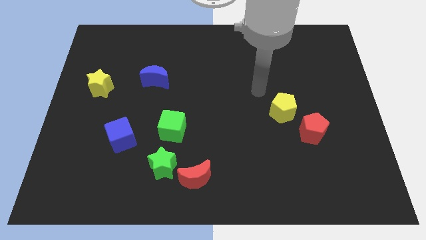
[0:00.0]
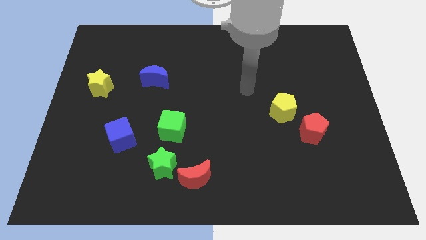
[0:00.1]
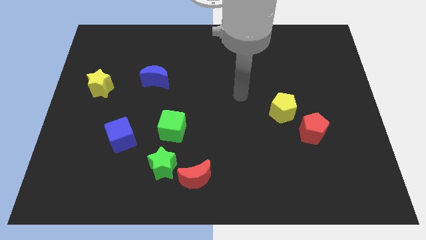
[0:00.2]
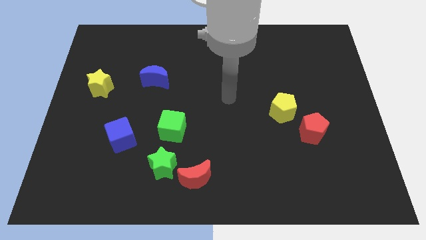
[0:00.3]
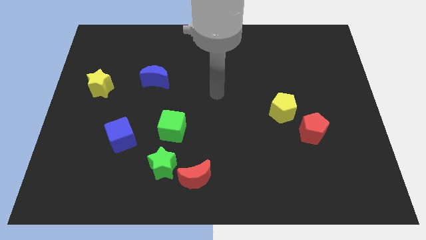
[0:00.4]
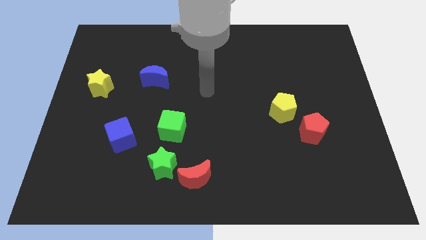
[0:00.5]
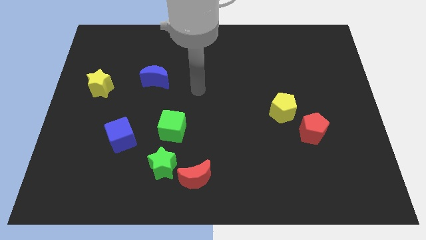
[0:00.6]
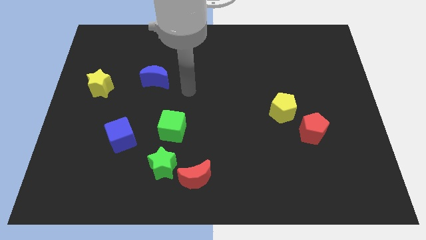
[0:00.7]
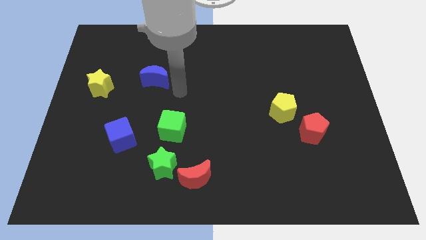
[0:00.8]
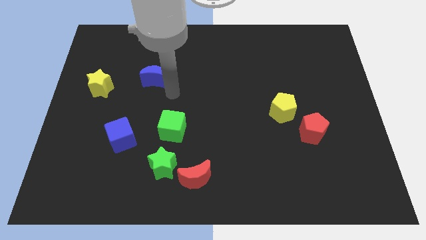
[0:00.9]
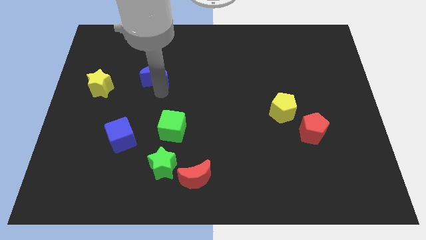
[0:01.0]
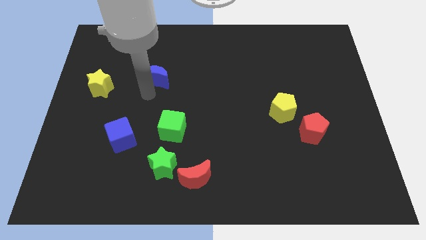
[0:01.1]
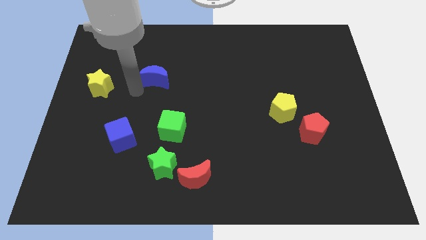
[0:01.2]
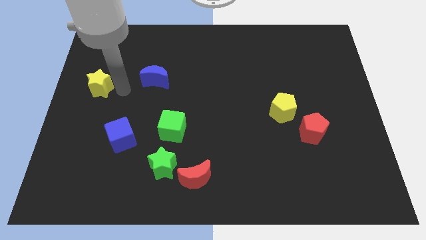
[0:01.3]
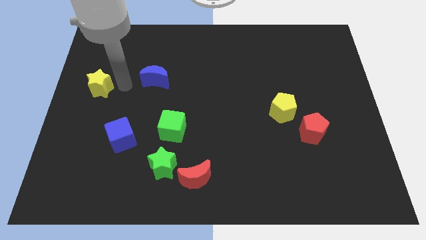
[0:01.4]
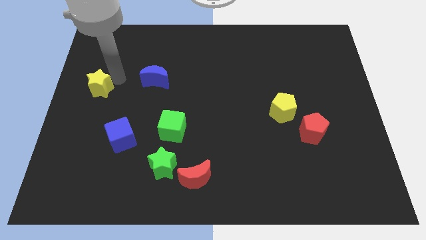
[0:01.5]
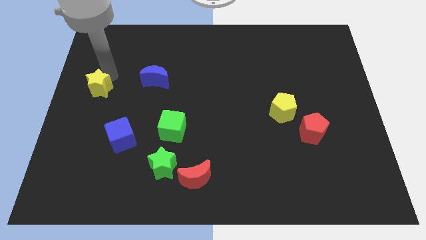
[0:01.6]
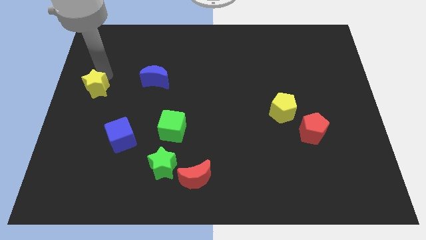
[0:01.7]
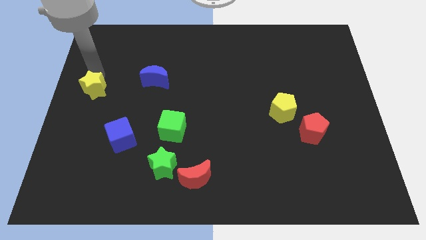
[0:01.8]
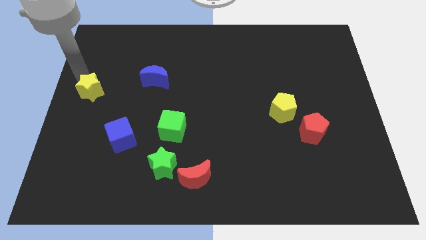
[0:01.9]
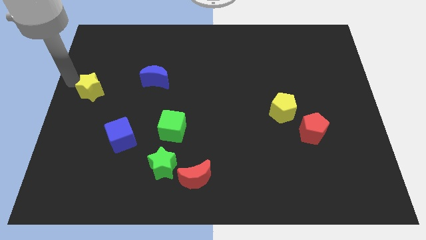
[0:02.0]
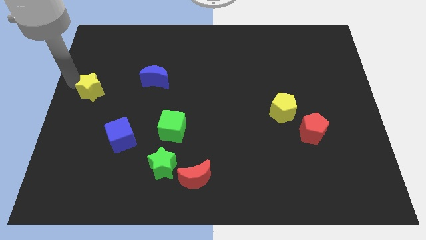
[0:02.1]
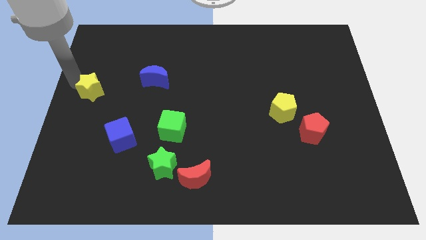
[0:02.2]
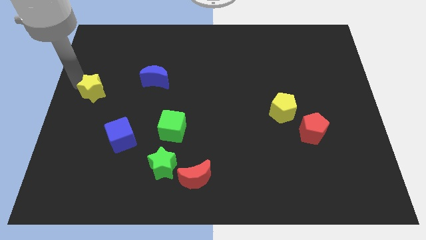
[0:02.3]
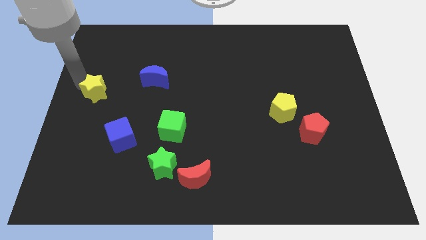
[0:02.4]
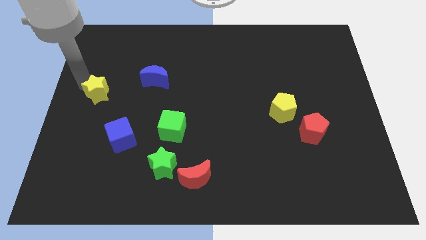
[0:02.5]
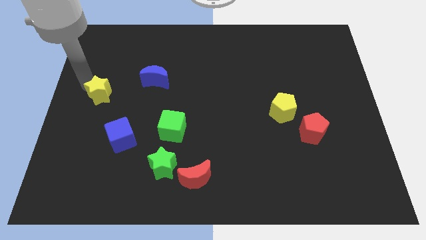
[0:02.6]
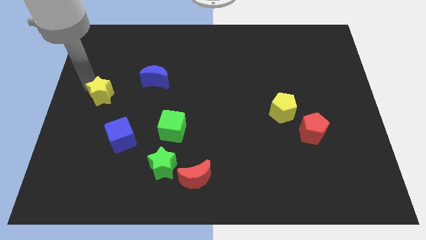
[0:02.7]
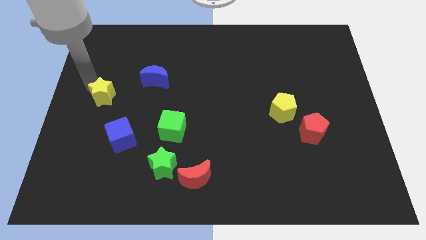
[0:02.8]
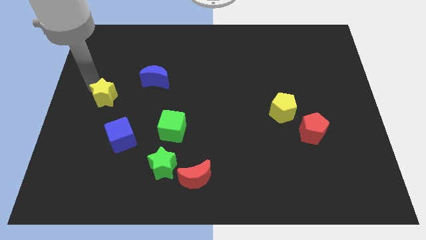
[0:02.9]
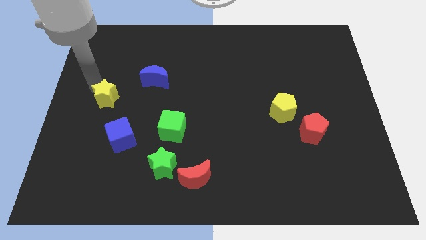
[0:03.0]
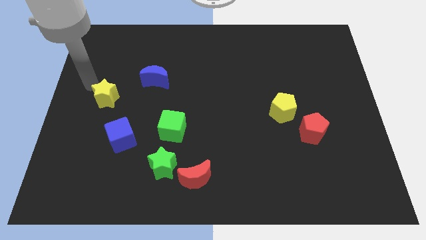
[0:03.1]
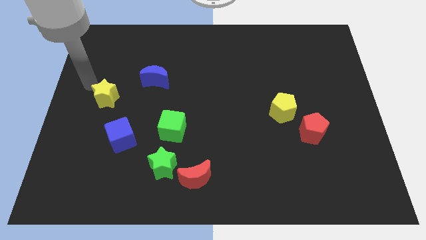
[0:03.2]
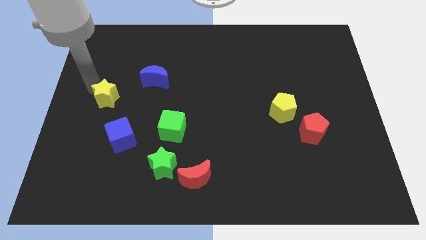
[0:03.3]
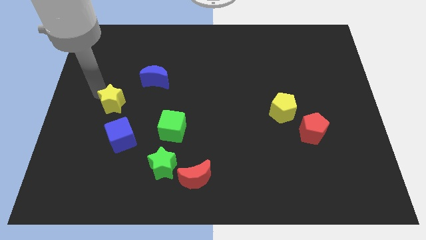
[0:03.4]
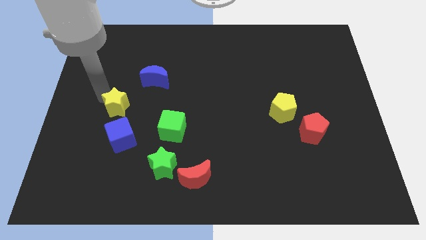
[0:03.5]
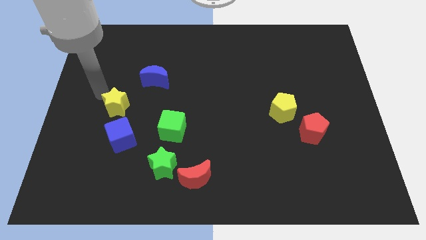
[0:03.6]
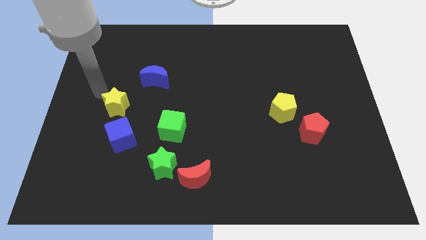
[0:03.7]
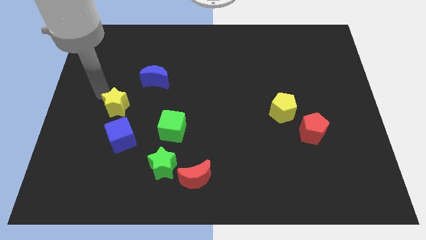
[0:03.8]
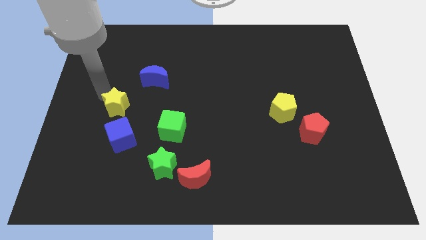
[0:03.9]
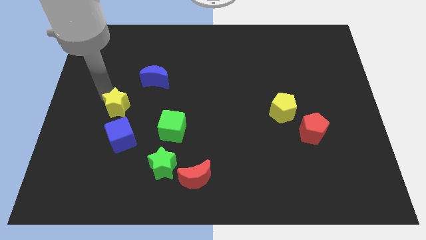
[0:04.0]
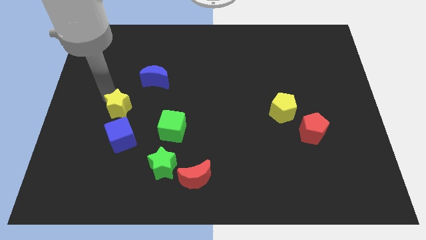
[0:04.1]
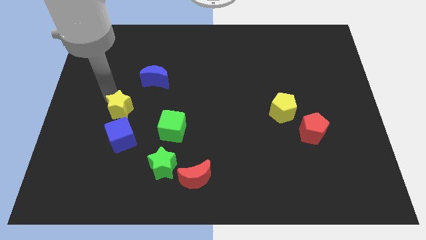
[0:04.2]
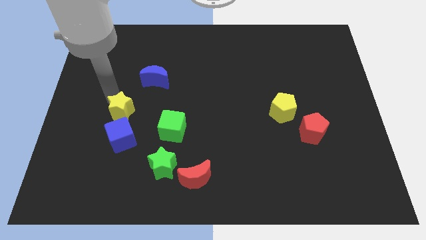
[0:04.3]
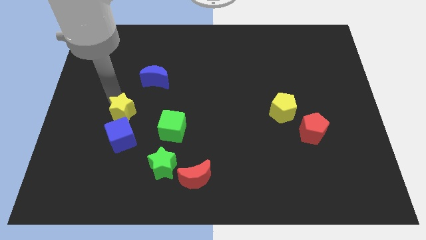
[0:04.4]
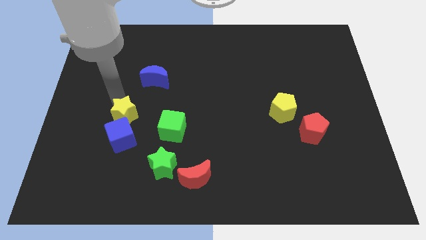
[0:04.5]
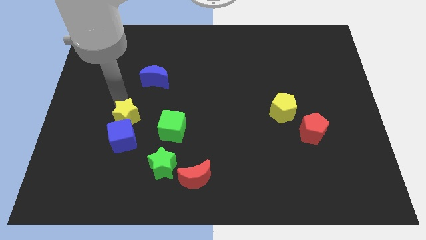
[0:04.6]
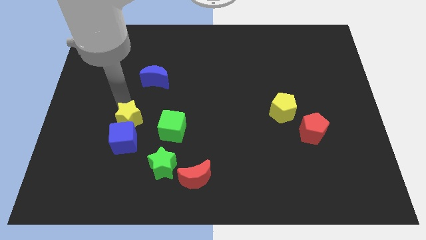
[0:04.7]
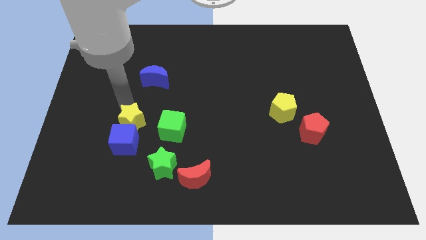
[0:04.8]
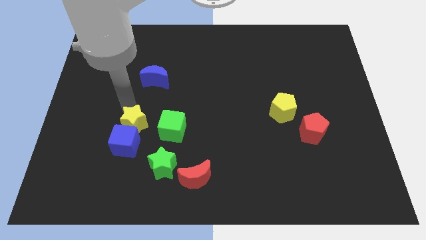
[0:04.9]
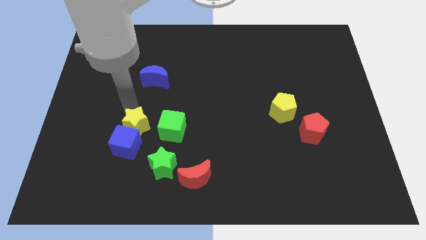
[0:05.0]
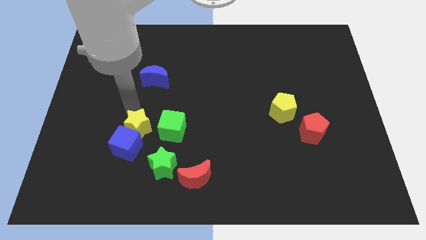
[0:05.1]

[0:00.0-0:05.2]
put the yellow star to the top left of the green star

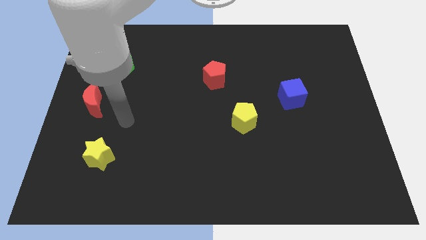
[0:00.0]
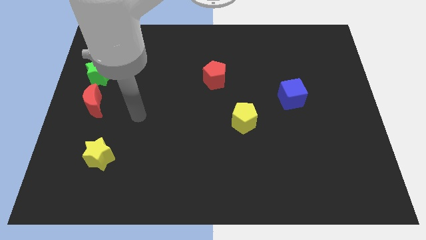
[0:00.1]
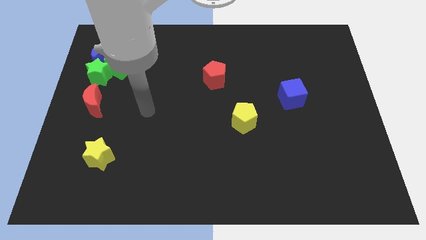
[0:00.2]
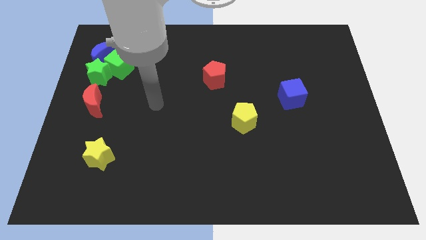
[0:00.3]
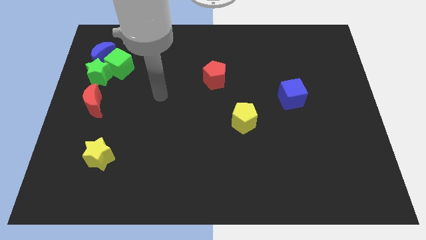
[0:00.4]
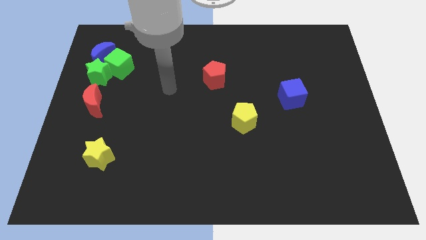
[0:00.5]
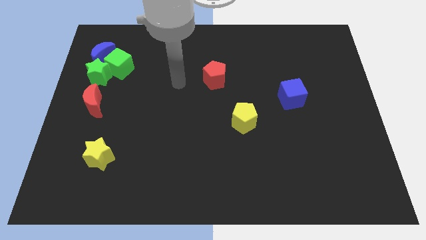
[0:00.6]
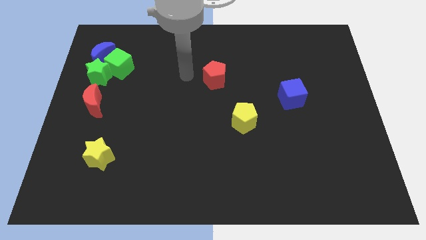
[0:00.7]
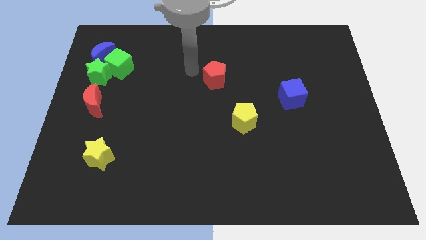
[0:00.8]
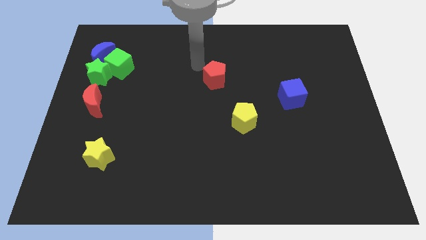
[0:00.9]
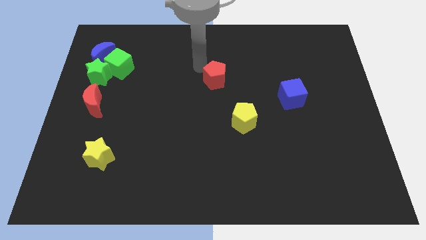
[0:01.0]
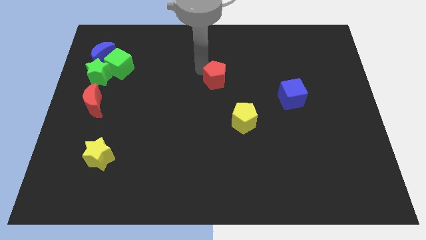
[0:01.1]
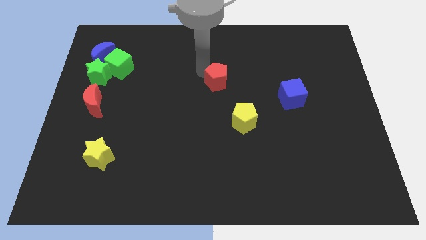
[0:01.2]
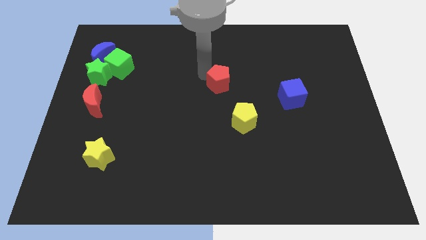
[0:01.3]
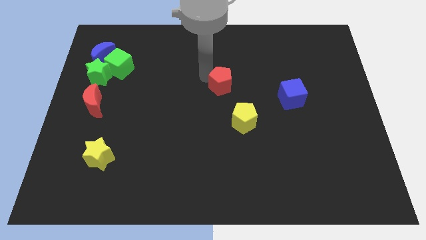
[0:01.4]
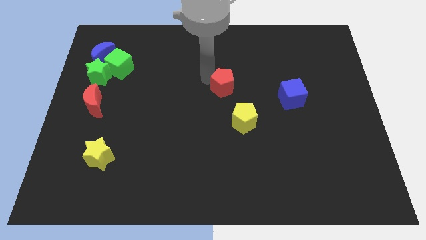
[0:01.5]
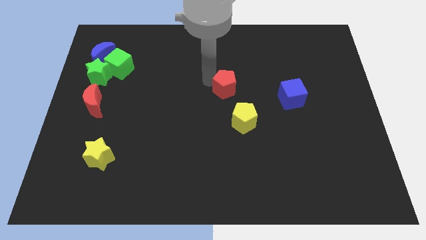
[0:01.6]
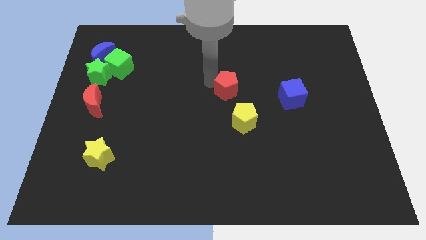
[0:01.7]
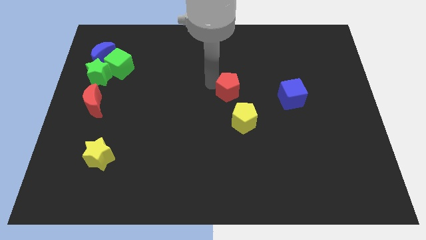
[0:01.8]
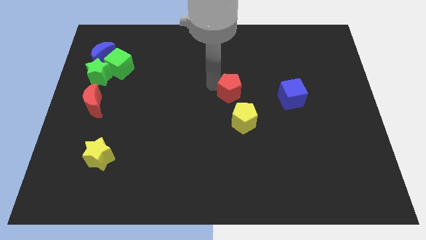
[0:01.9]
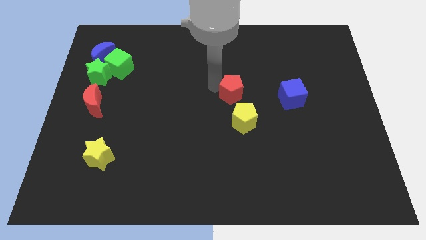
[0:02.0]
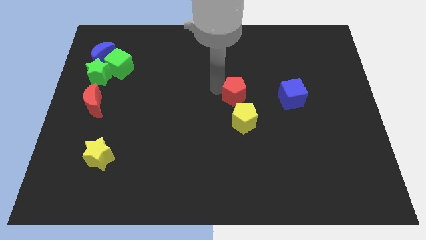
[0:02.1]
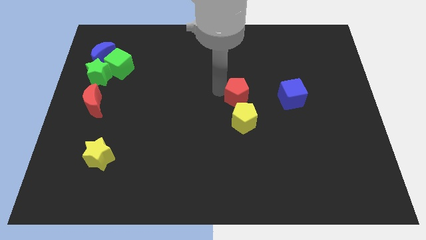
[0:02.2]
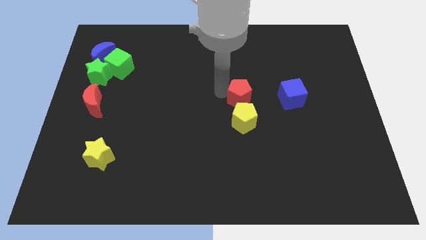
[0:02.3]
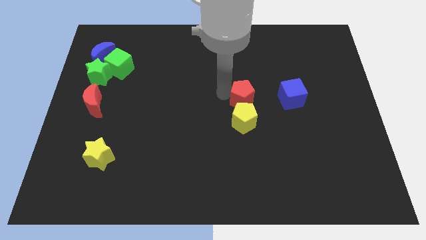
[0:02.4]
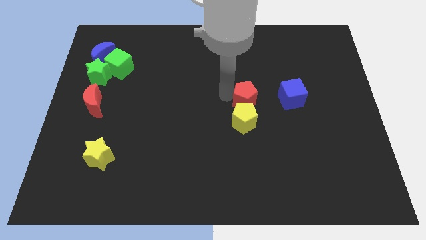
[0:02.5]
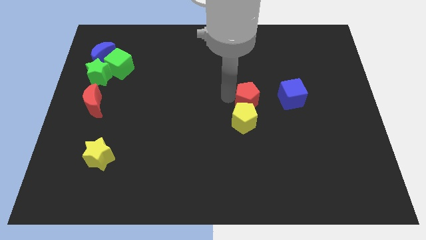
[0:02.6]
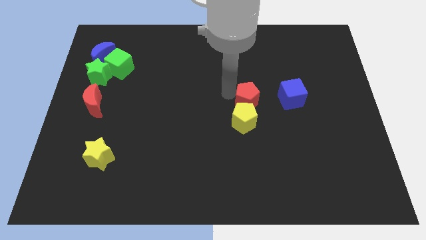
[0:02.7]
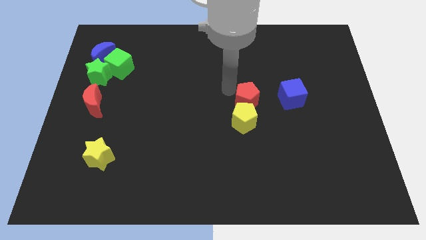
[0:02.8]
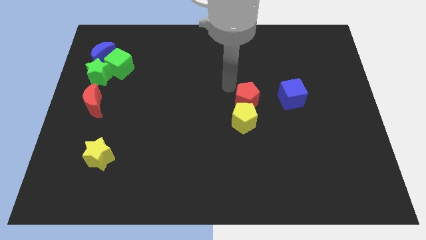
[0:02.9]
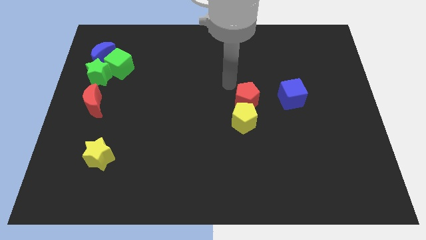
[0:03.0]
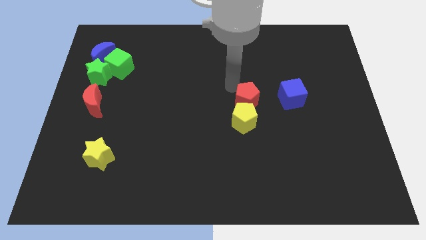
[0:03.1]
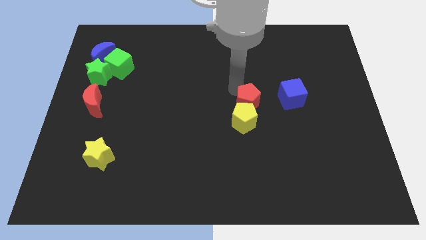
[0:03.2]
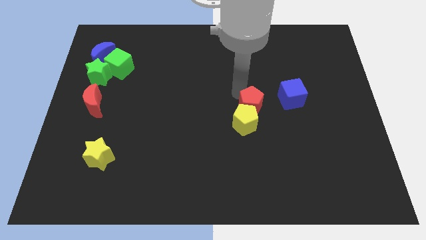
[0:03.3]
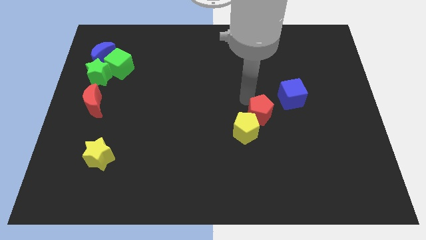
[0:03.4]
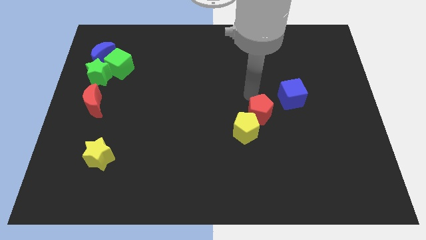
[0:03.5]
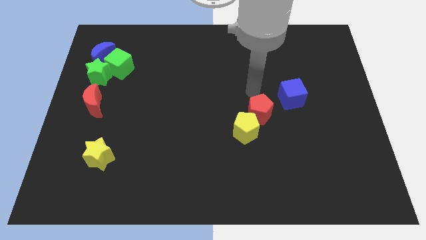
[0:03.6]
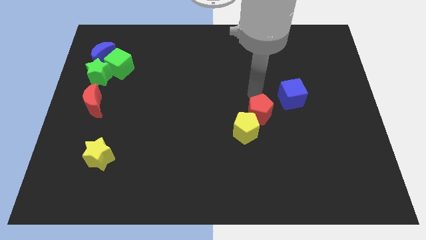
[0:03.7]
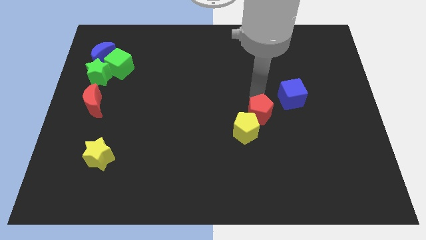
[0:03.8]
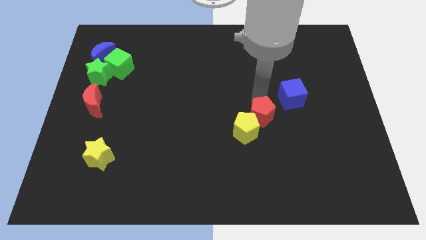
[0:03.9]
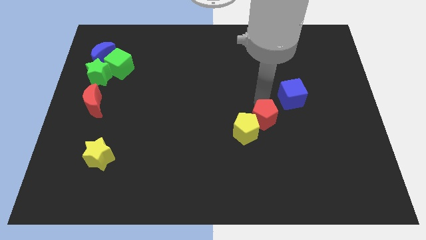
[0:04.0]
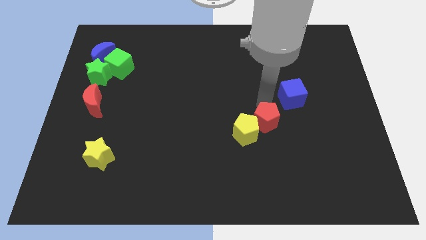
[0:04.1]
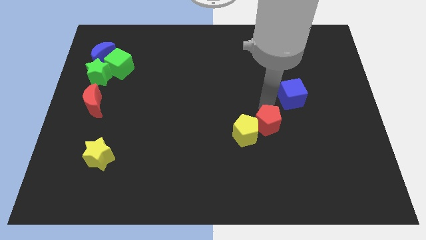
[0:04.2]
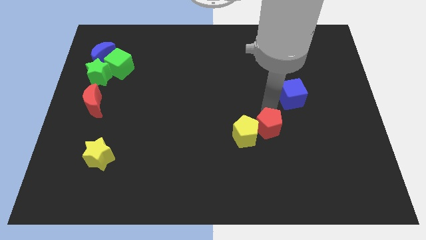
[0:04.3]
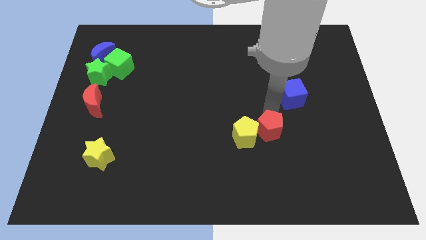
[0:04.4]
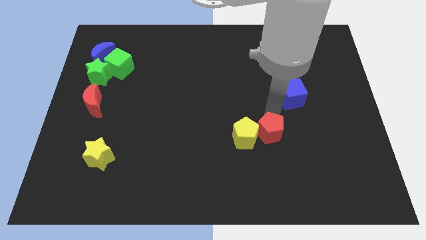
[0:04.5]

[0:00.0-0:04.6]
put the red pentagon to the bottom right of the yellow pentagon
